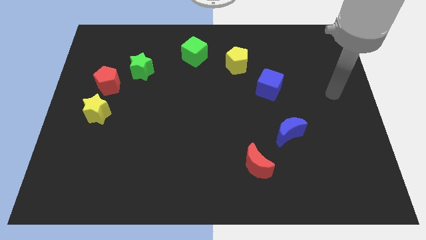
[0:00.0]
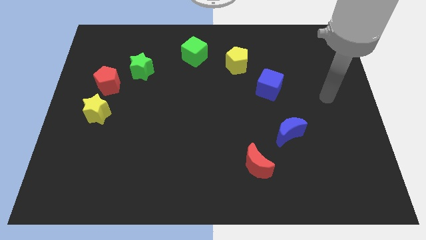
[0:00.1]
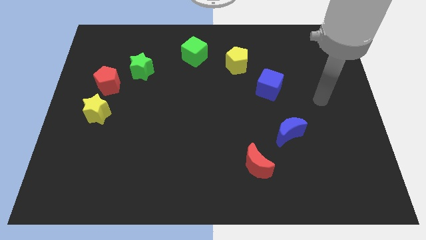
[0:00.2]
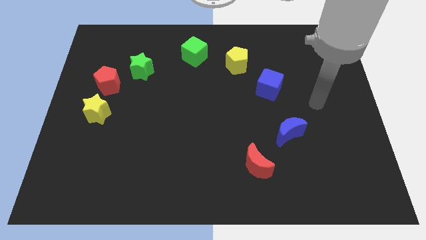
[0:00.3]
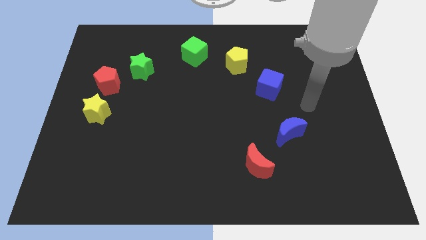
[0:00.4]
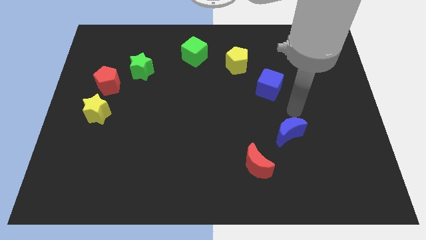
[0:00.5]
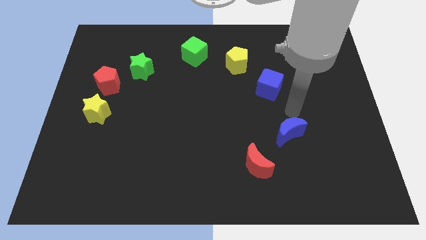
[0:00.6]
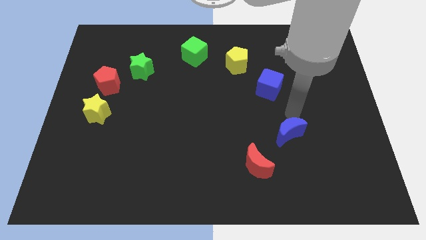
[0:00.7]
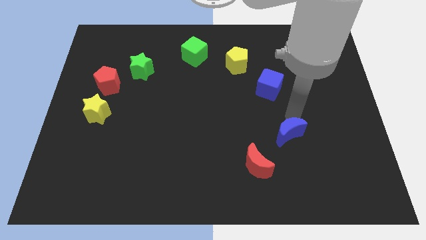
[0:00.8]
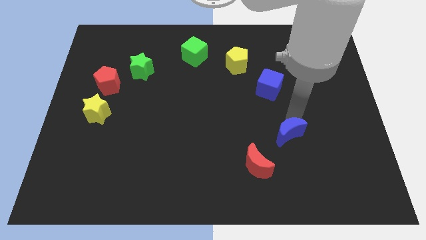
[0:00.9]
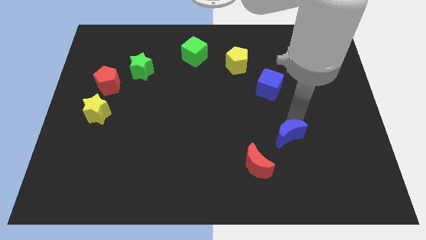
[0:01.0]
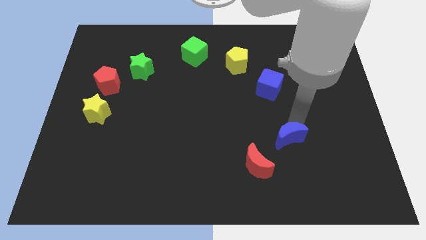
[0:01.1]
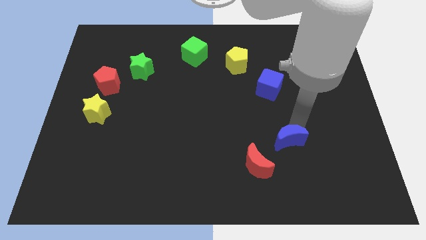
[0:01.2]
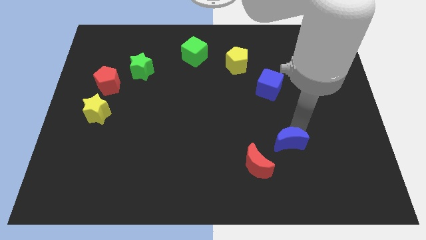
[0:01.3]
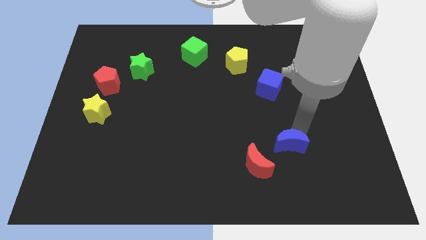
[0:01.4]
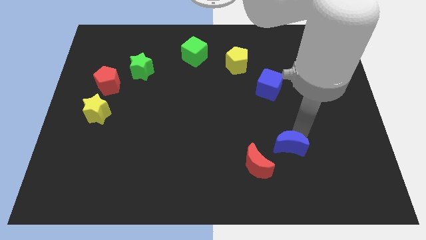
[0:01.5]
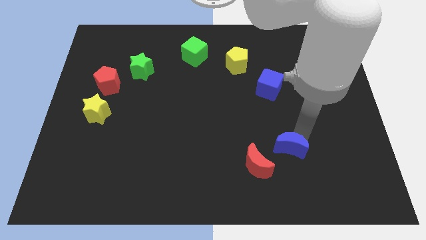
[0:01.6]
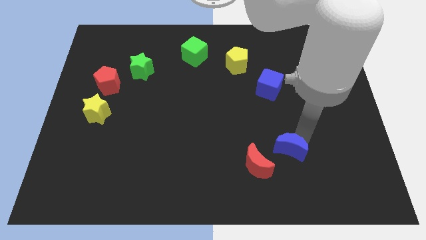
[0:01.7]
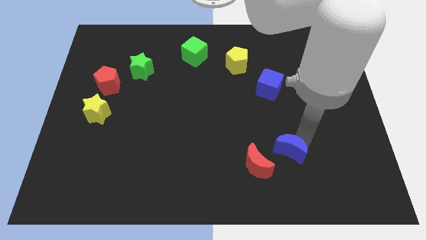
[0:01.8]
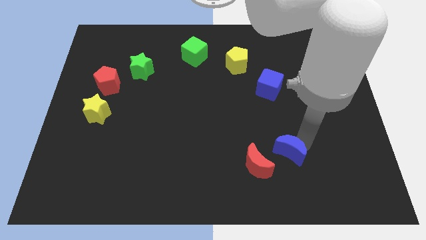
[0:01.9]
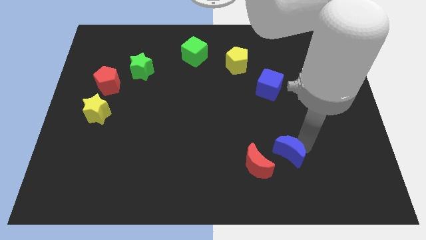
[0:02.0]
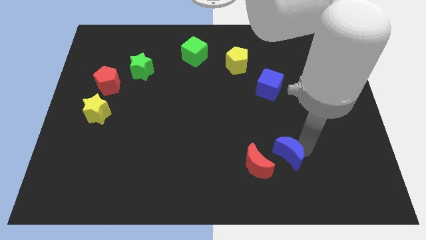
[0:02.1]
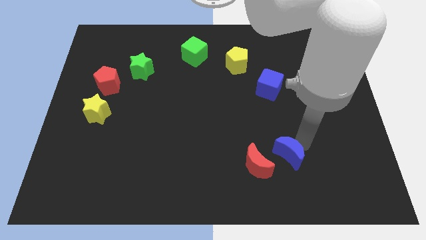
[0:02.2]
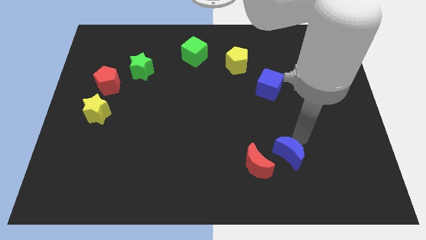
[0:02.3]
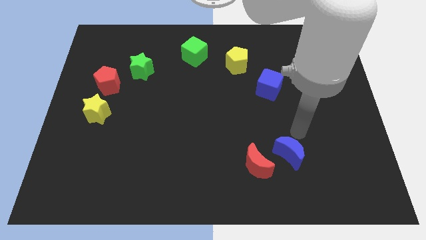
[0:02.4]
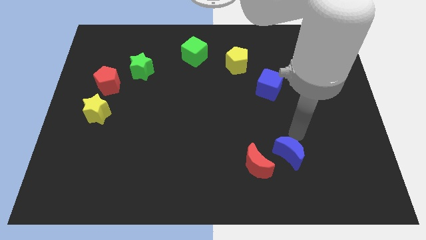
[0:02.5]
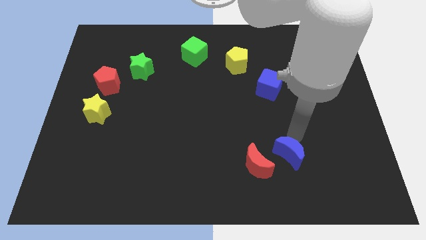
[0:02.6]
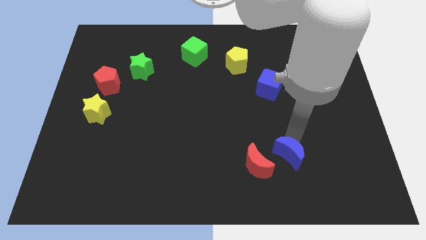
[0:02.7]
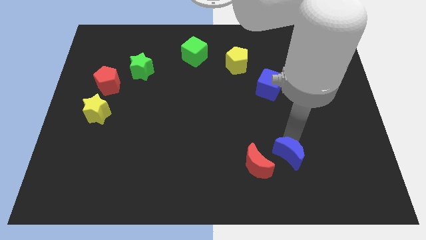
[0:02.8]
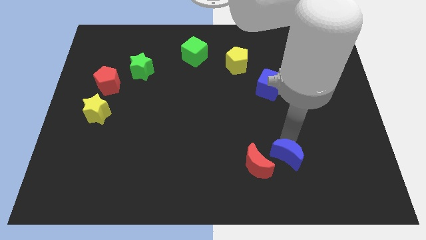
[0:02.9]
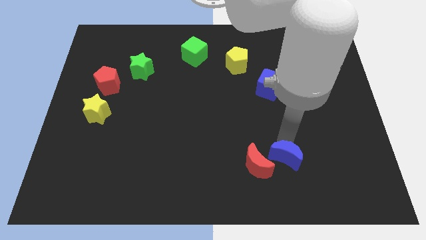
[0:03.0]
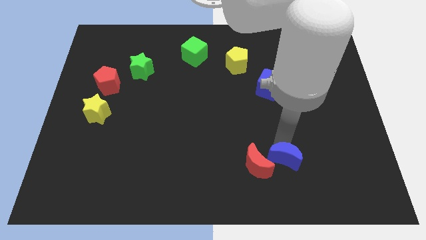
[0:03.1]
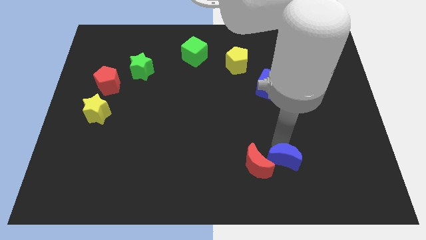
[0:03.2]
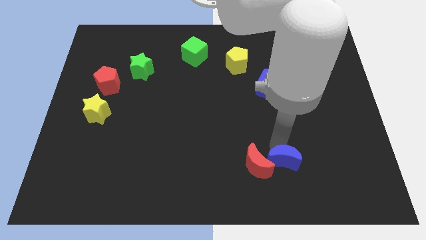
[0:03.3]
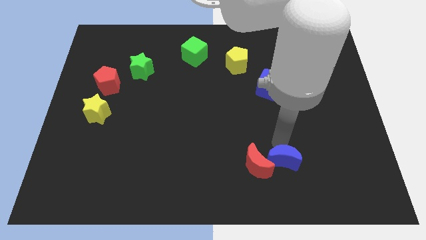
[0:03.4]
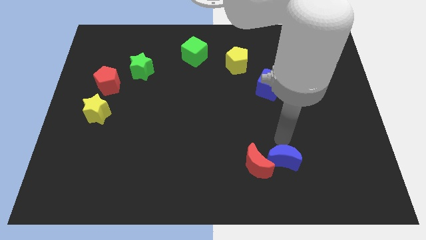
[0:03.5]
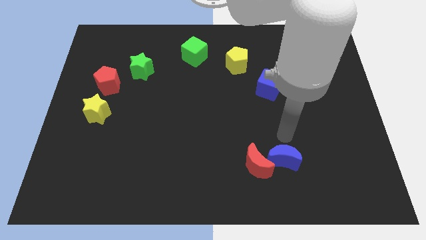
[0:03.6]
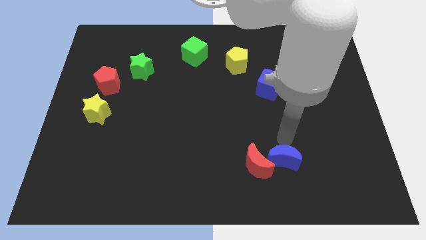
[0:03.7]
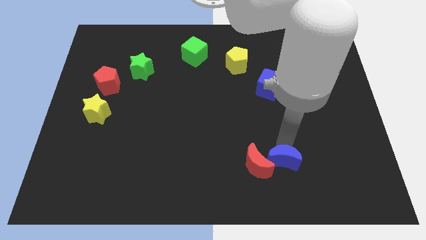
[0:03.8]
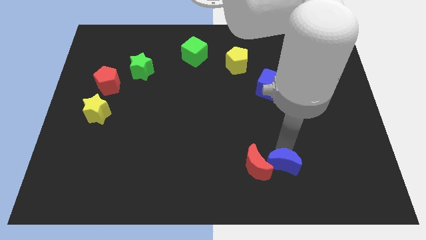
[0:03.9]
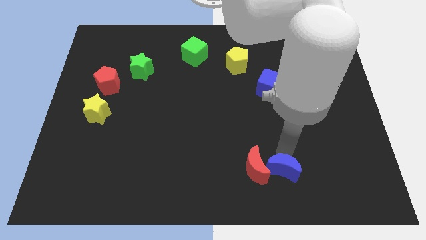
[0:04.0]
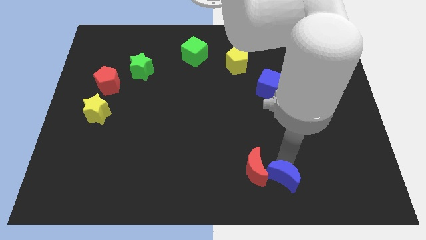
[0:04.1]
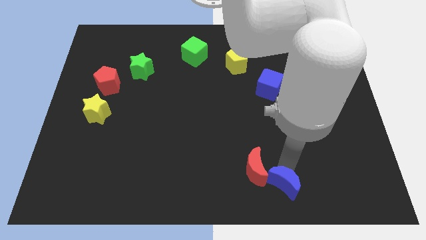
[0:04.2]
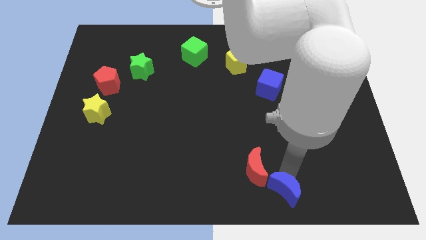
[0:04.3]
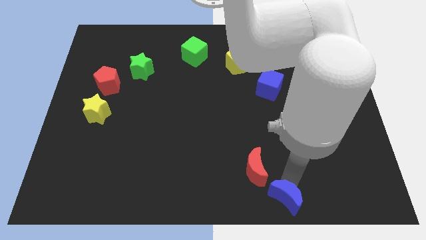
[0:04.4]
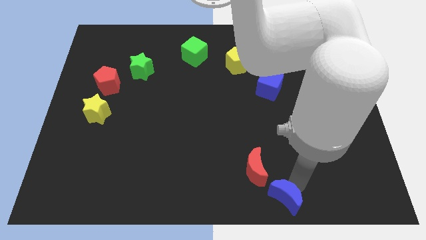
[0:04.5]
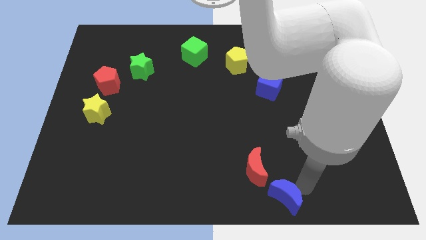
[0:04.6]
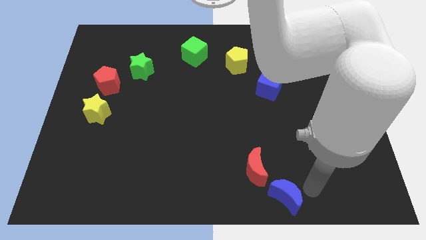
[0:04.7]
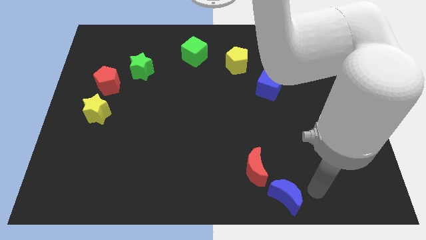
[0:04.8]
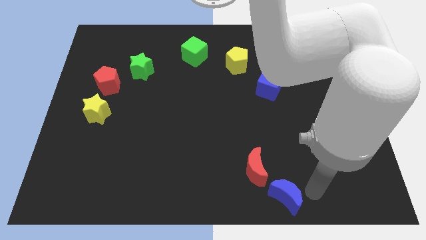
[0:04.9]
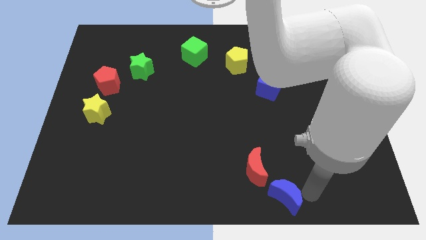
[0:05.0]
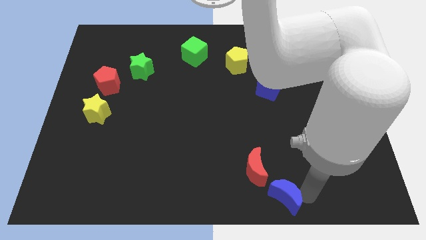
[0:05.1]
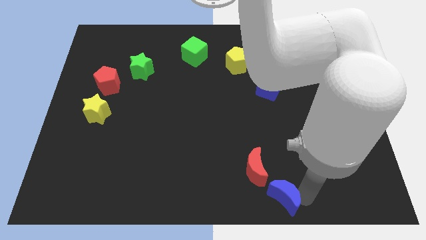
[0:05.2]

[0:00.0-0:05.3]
push the blue moon to the bottom side

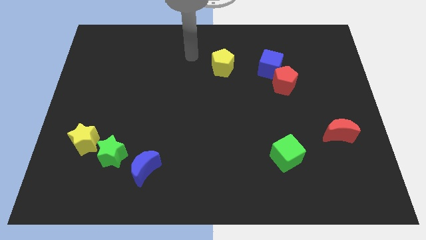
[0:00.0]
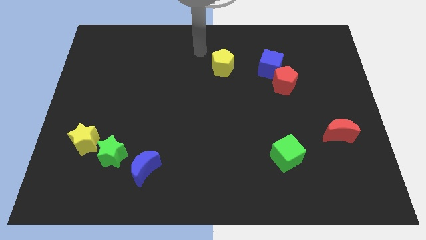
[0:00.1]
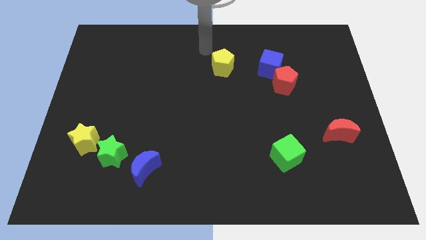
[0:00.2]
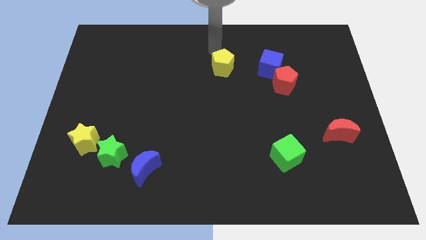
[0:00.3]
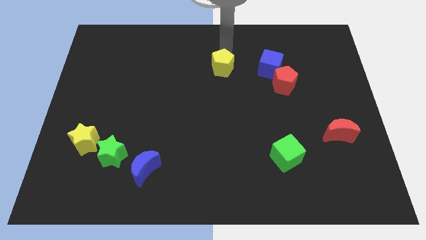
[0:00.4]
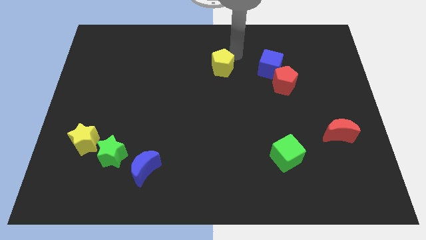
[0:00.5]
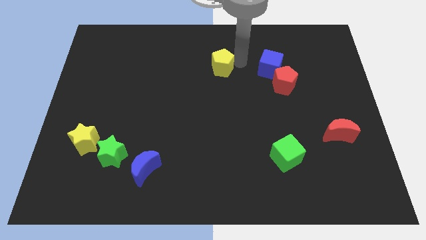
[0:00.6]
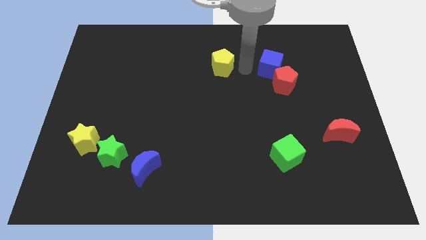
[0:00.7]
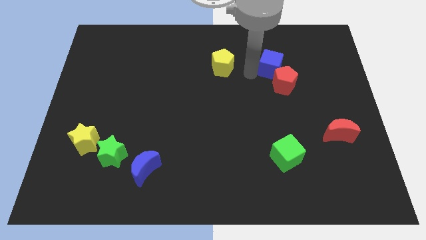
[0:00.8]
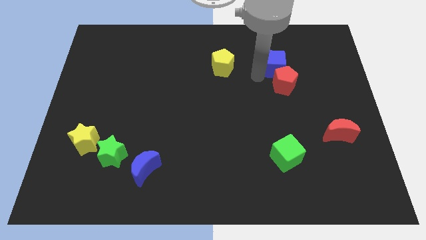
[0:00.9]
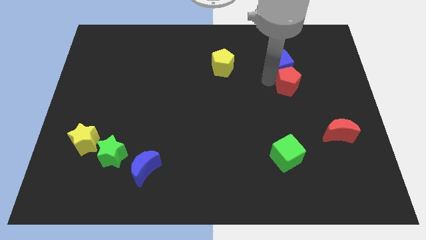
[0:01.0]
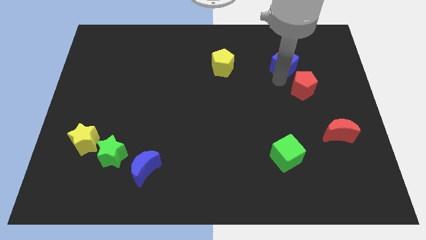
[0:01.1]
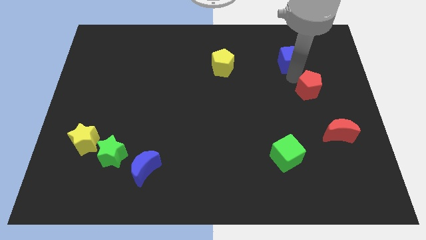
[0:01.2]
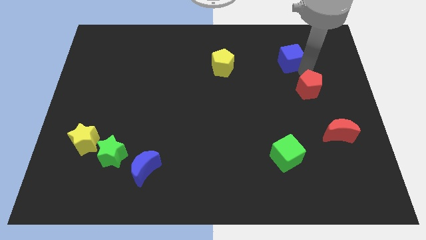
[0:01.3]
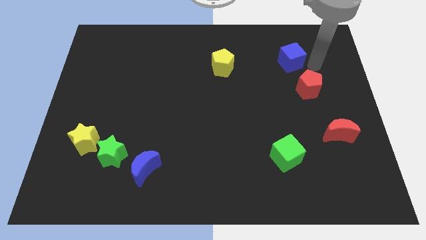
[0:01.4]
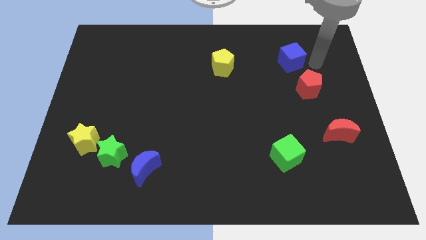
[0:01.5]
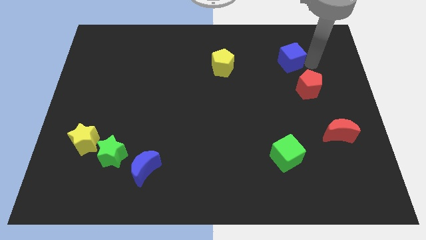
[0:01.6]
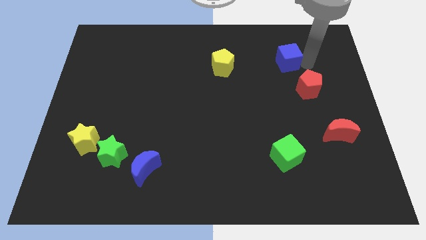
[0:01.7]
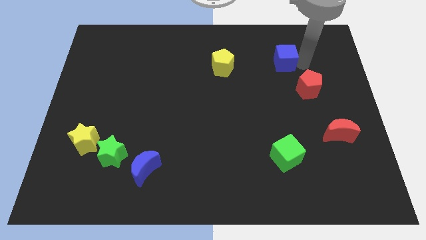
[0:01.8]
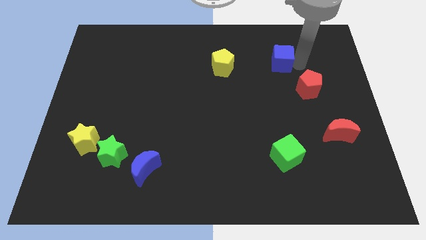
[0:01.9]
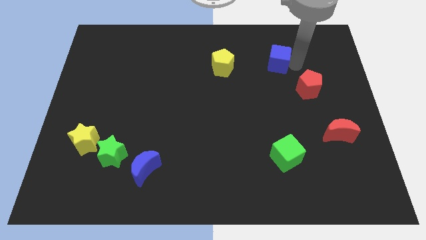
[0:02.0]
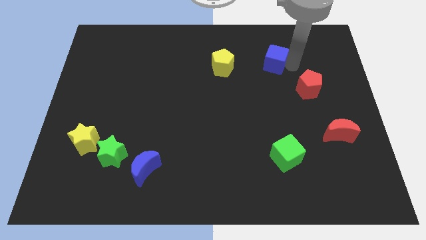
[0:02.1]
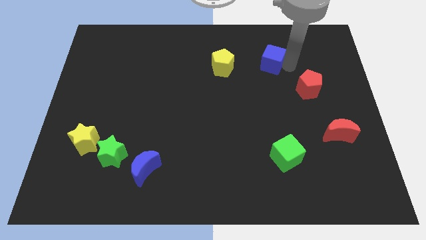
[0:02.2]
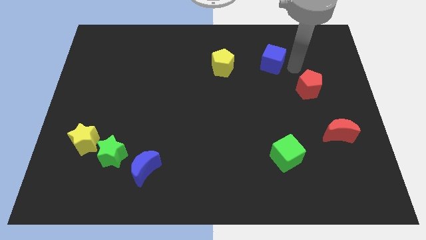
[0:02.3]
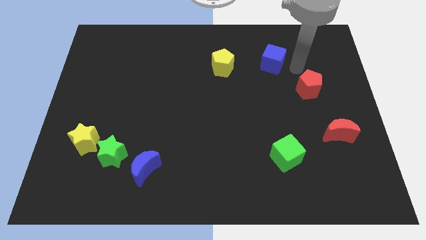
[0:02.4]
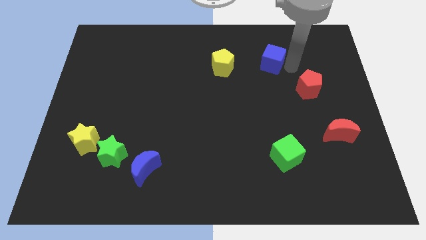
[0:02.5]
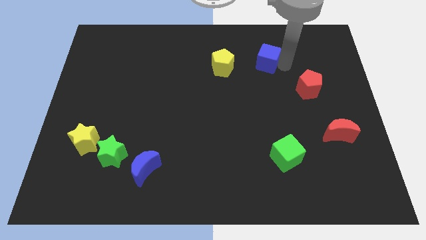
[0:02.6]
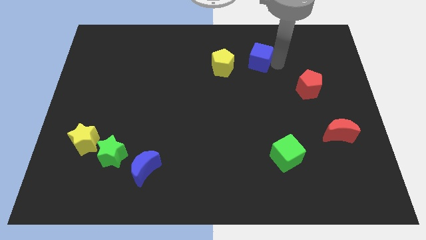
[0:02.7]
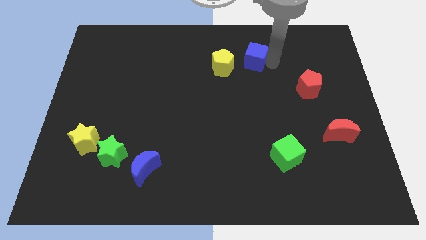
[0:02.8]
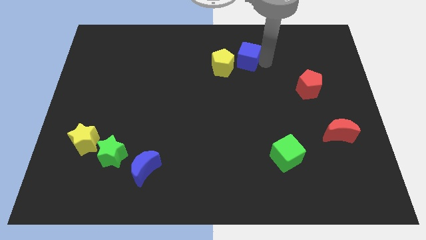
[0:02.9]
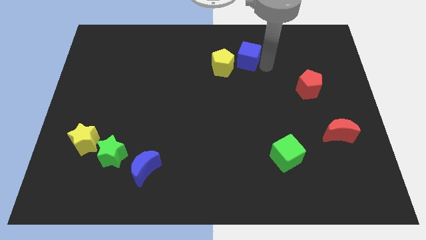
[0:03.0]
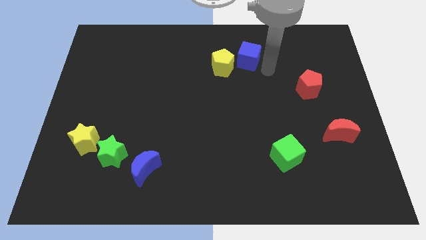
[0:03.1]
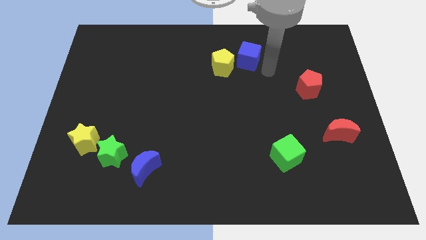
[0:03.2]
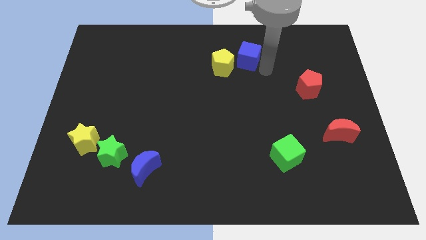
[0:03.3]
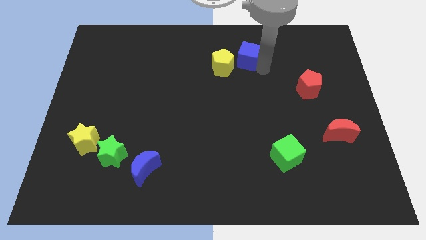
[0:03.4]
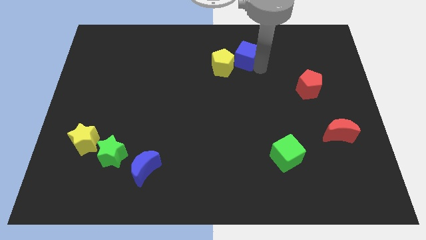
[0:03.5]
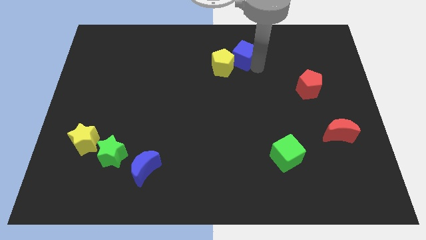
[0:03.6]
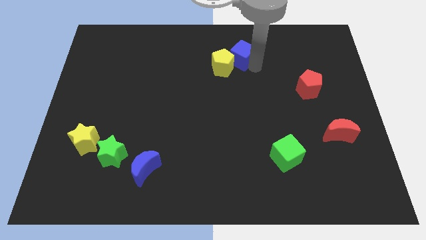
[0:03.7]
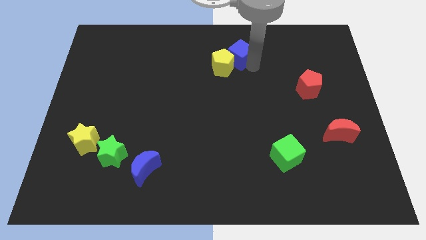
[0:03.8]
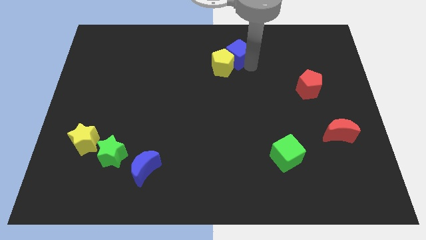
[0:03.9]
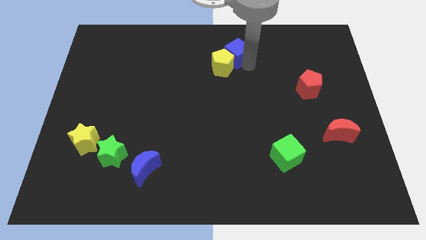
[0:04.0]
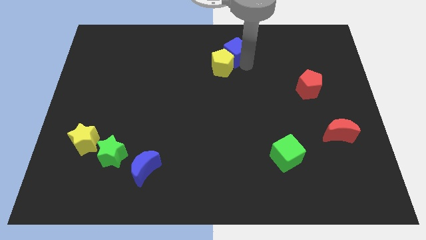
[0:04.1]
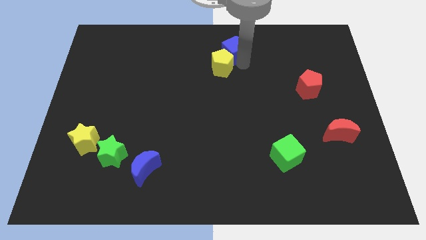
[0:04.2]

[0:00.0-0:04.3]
move the blue cube to the top side
